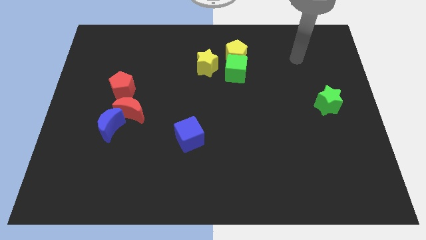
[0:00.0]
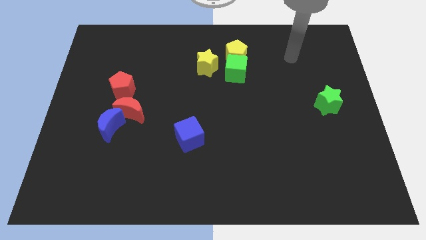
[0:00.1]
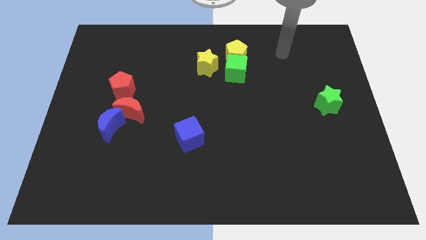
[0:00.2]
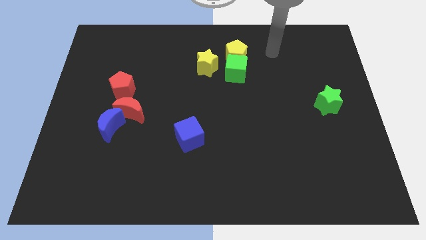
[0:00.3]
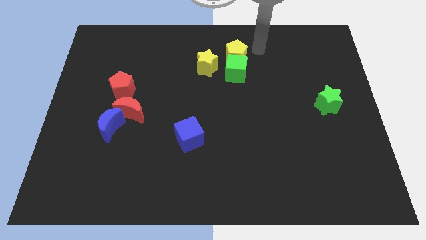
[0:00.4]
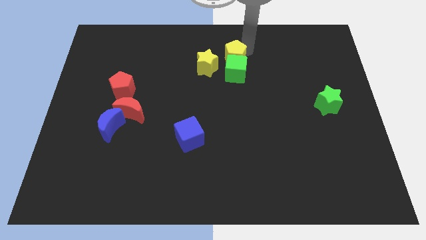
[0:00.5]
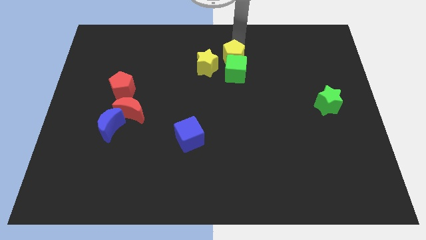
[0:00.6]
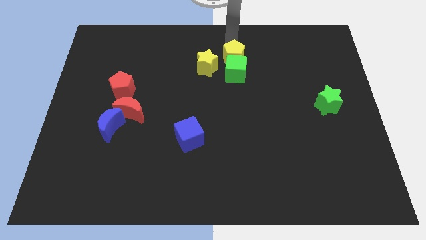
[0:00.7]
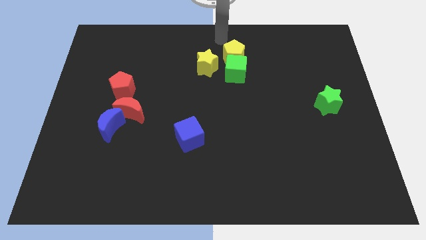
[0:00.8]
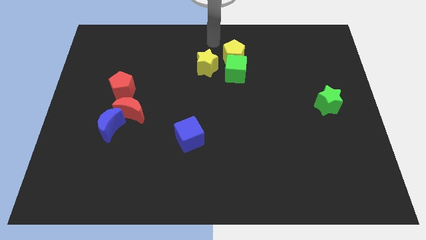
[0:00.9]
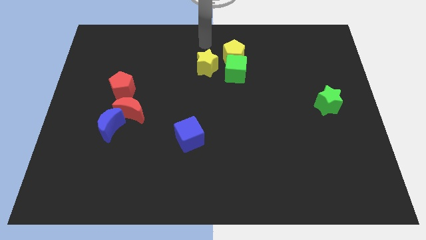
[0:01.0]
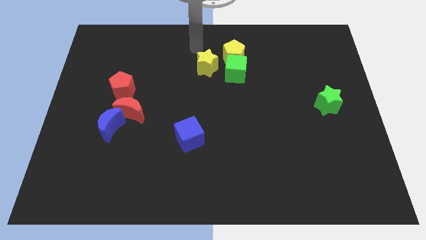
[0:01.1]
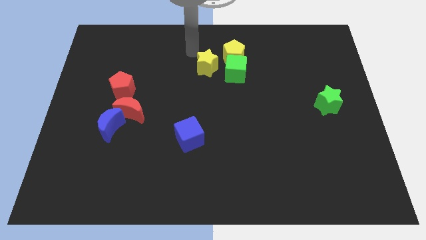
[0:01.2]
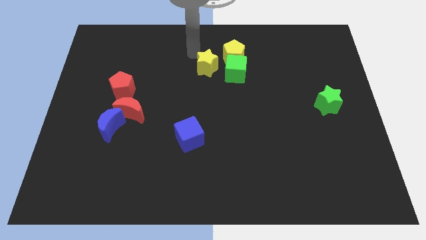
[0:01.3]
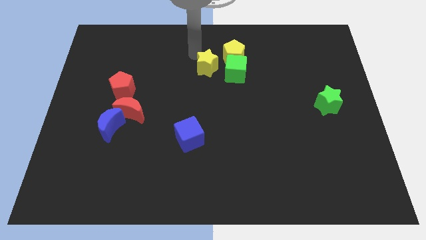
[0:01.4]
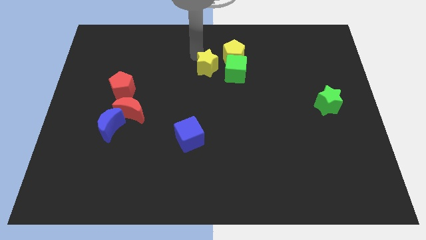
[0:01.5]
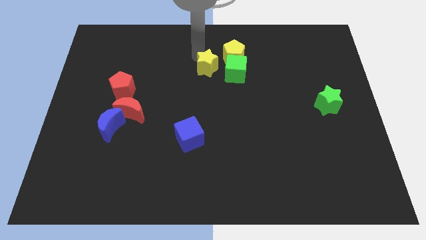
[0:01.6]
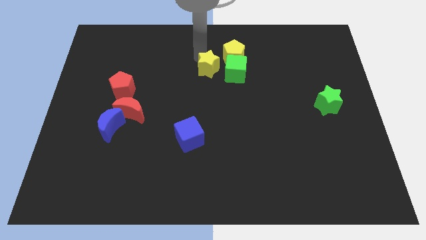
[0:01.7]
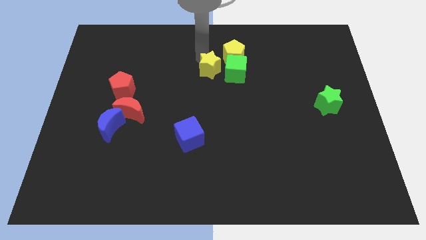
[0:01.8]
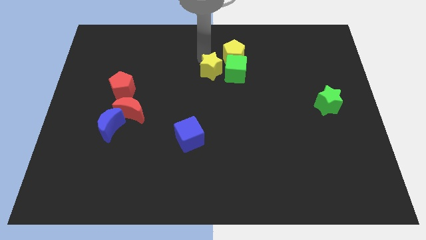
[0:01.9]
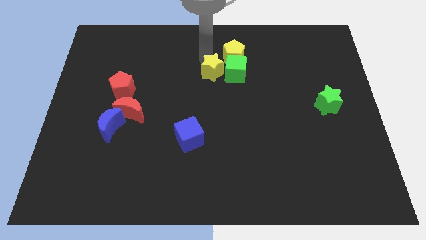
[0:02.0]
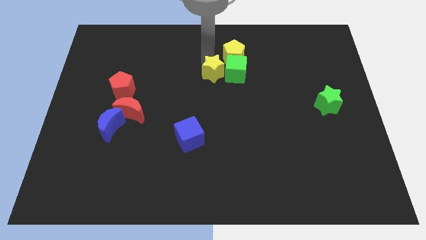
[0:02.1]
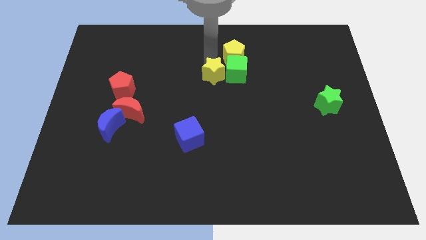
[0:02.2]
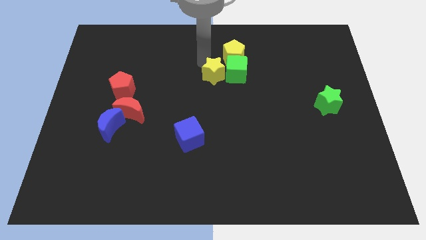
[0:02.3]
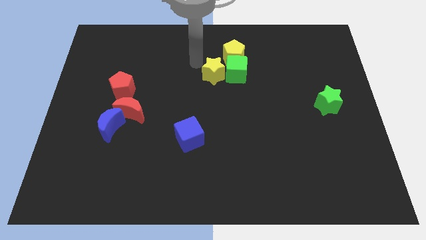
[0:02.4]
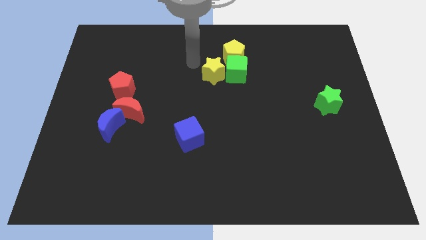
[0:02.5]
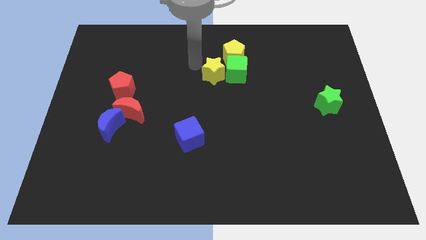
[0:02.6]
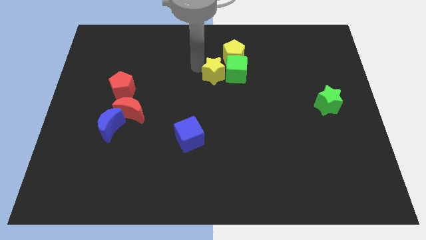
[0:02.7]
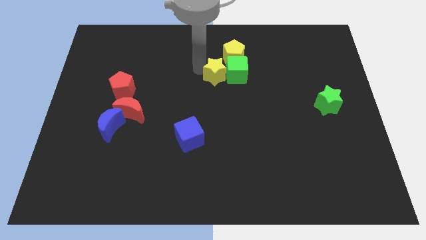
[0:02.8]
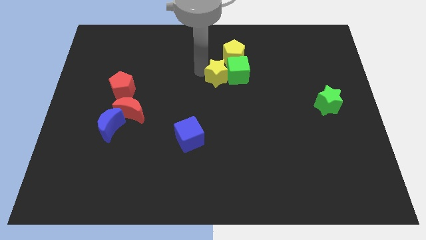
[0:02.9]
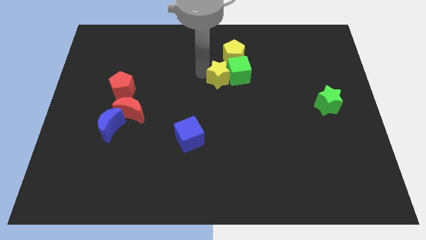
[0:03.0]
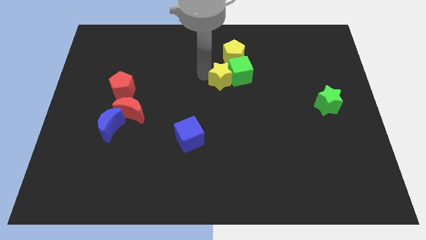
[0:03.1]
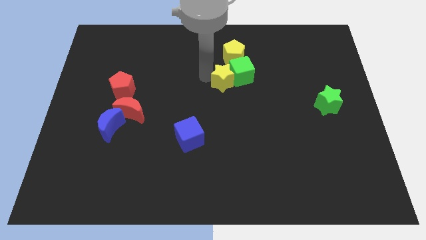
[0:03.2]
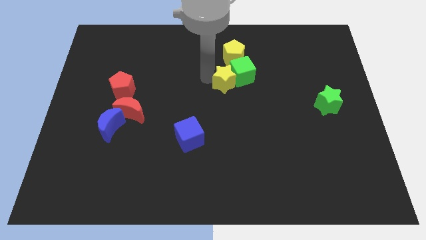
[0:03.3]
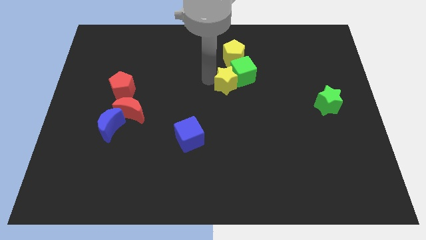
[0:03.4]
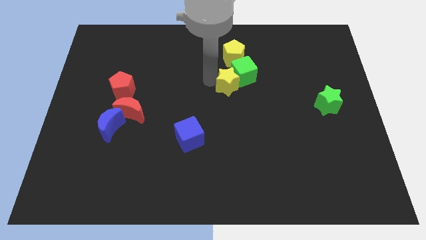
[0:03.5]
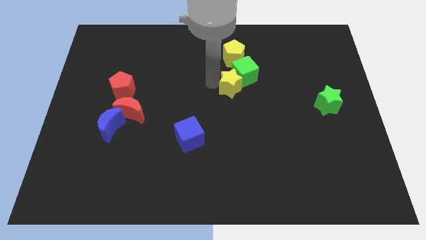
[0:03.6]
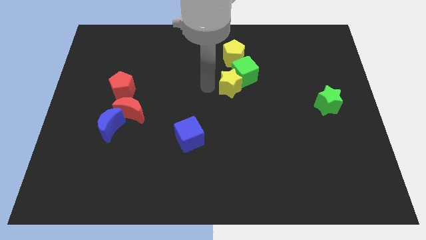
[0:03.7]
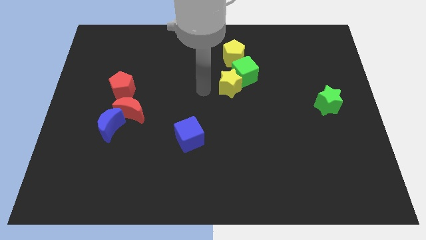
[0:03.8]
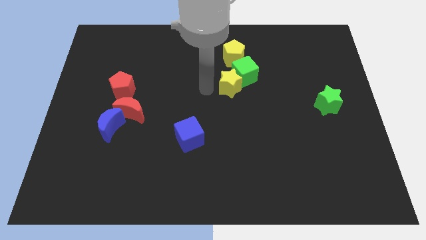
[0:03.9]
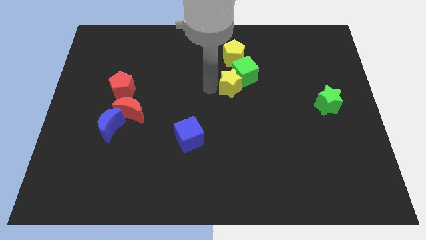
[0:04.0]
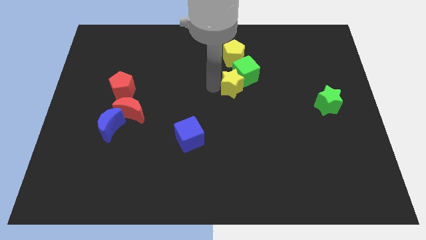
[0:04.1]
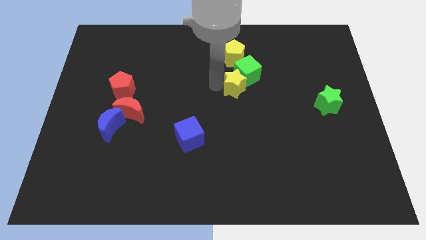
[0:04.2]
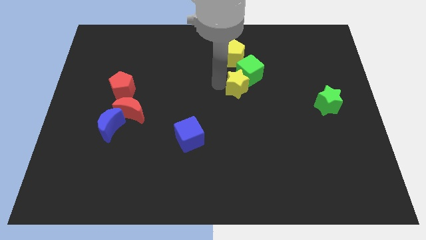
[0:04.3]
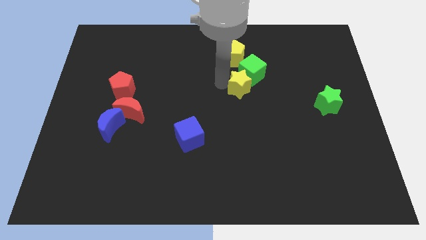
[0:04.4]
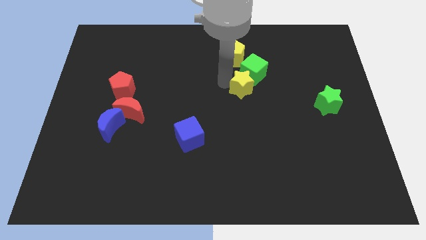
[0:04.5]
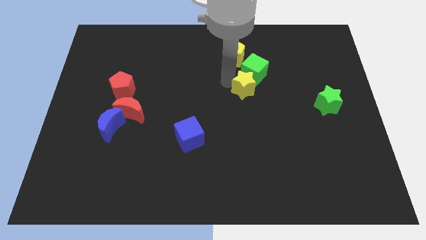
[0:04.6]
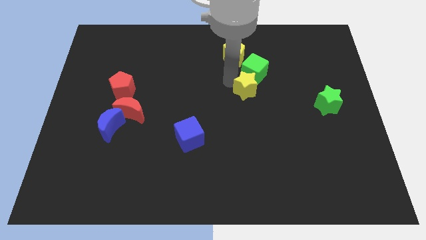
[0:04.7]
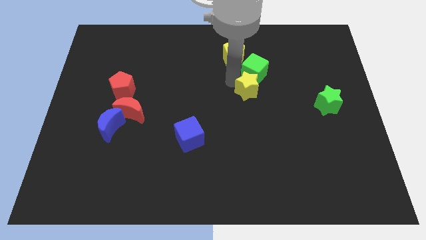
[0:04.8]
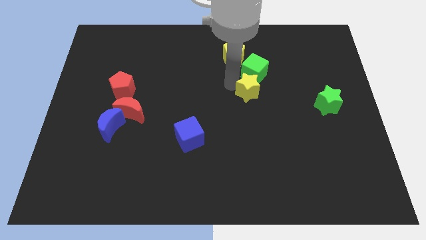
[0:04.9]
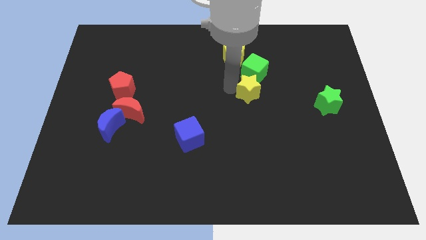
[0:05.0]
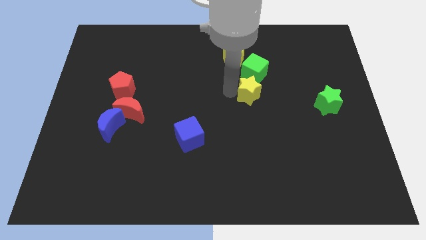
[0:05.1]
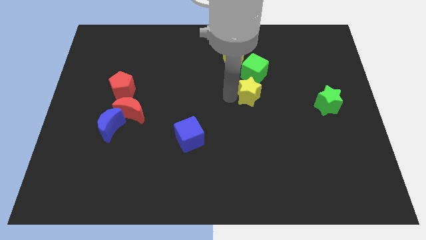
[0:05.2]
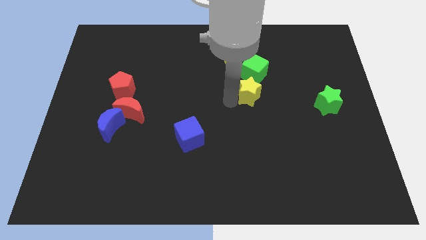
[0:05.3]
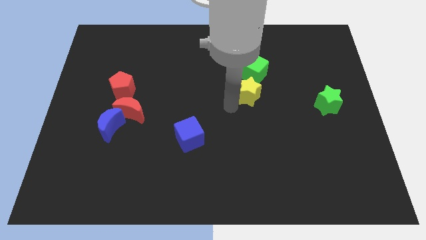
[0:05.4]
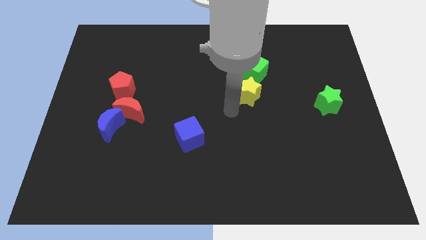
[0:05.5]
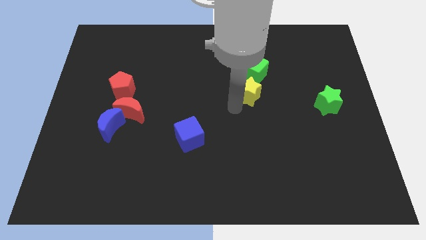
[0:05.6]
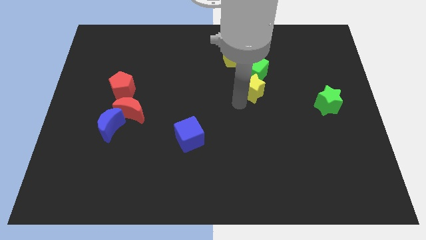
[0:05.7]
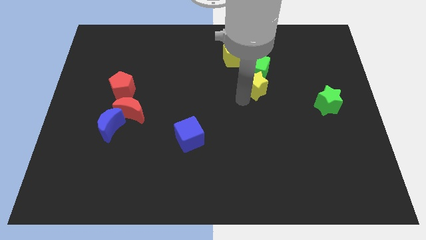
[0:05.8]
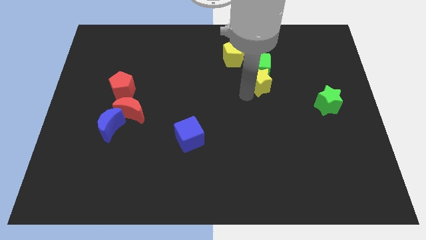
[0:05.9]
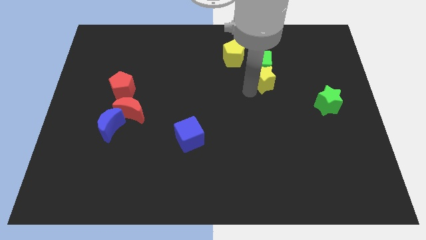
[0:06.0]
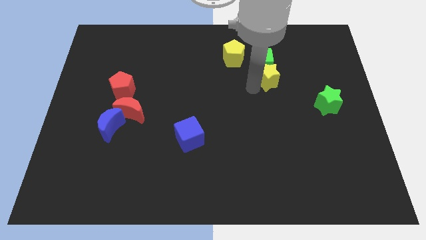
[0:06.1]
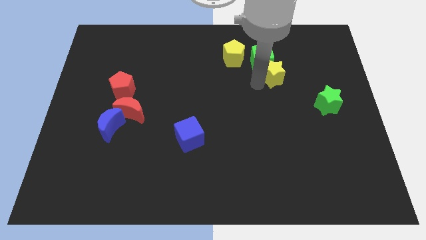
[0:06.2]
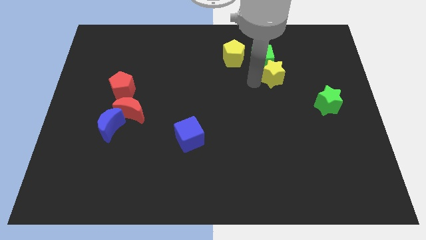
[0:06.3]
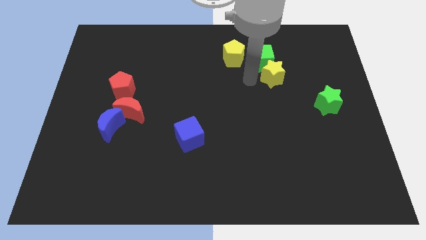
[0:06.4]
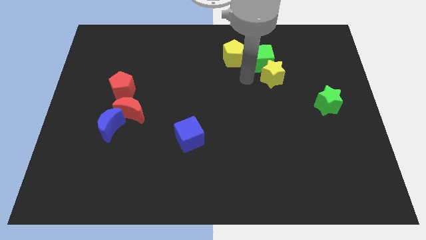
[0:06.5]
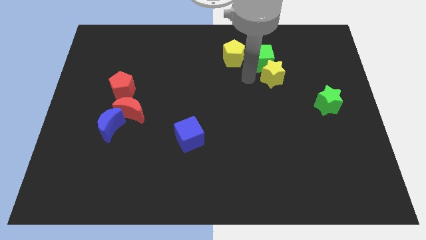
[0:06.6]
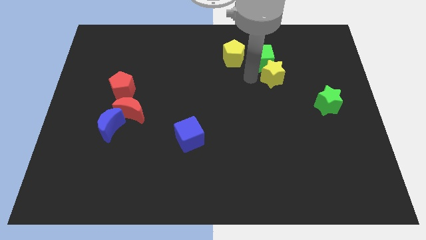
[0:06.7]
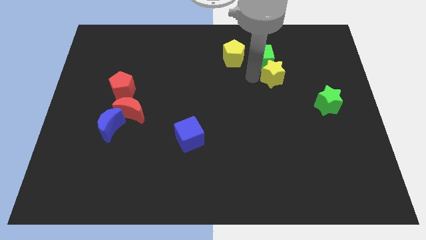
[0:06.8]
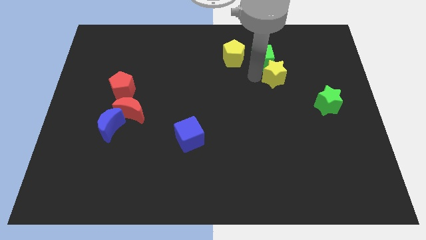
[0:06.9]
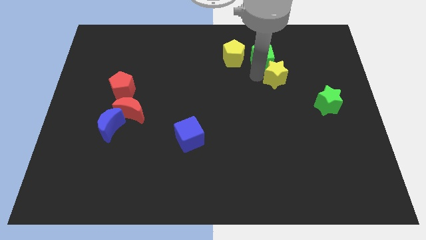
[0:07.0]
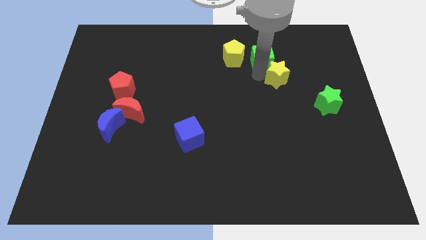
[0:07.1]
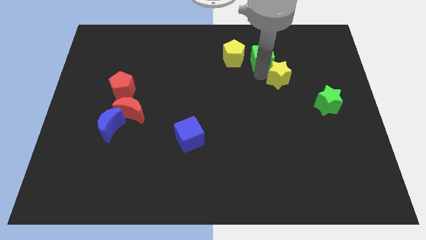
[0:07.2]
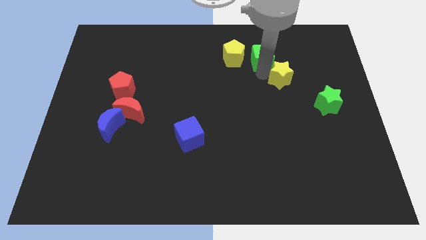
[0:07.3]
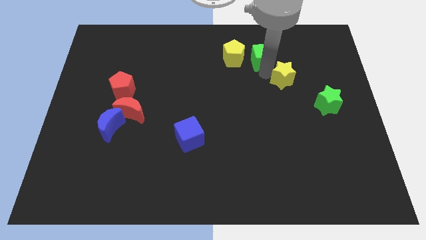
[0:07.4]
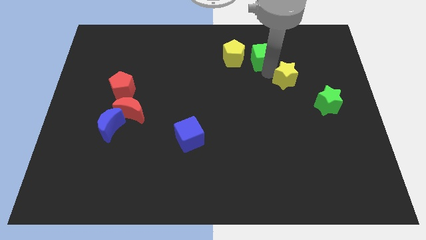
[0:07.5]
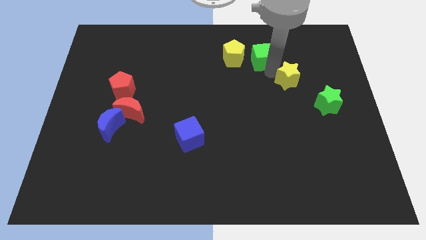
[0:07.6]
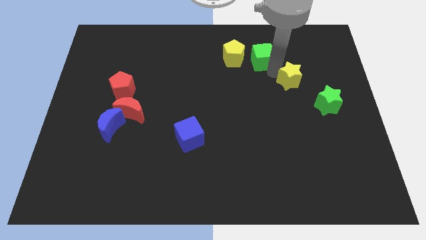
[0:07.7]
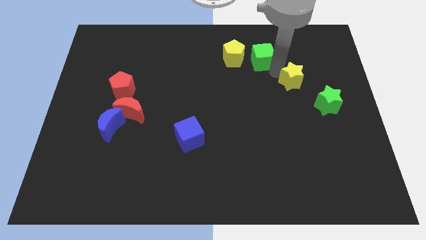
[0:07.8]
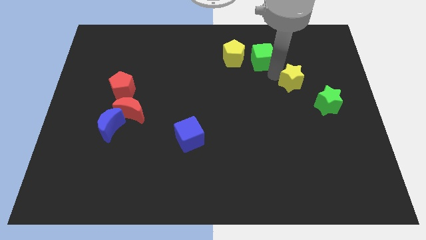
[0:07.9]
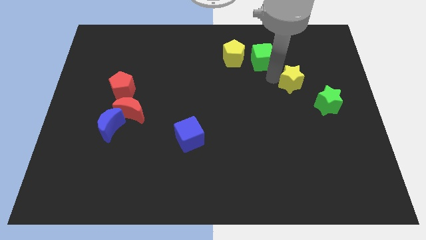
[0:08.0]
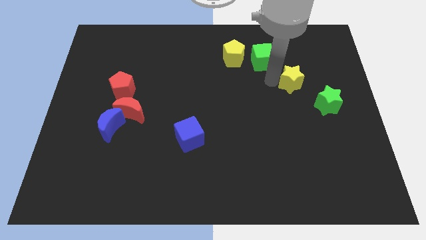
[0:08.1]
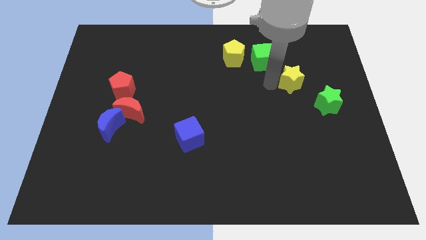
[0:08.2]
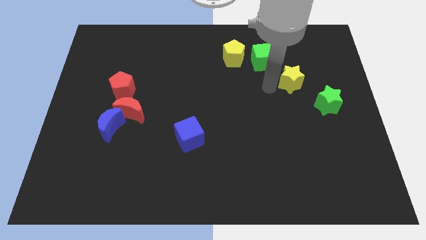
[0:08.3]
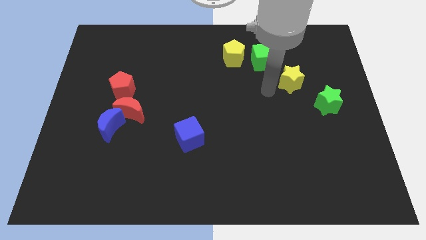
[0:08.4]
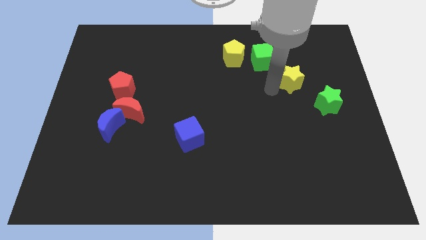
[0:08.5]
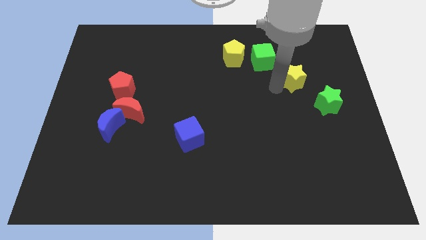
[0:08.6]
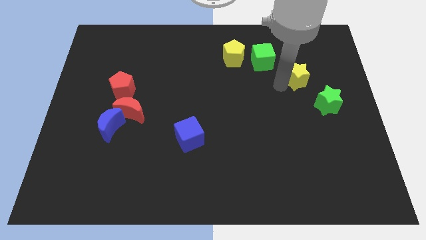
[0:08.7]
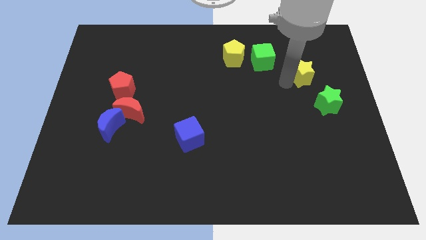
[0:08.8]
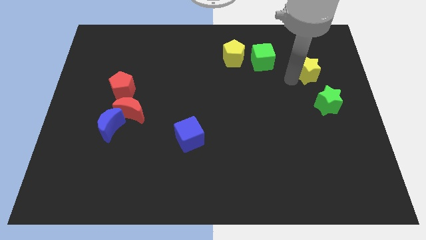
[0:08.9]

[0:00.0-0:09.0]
put the yellow star to the top of the green star
